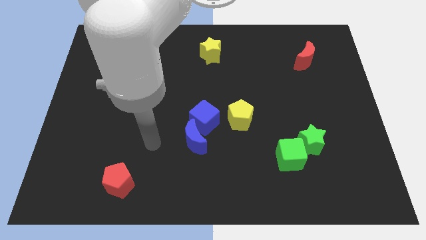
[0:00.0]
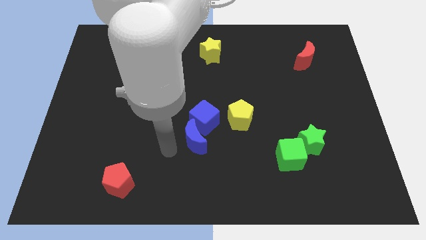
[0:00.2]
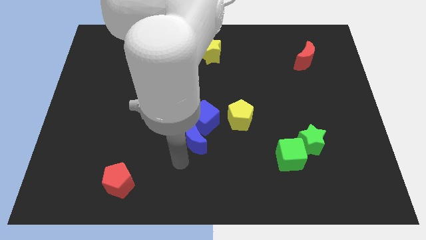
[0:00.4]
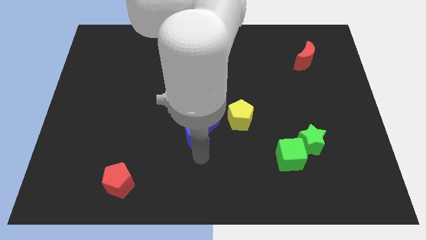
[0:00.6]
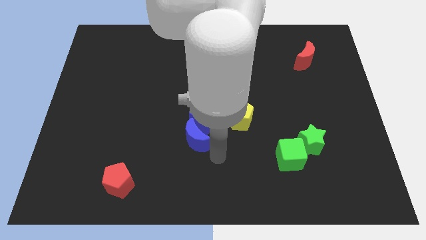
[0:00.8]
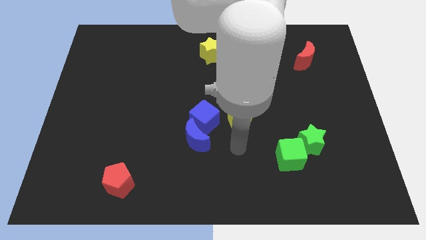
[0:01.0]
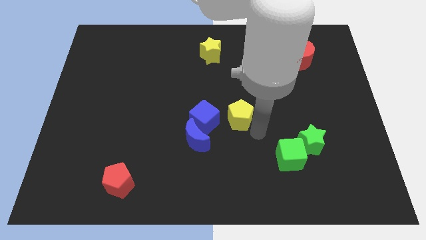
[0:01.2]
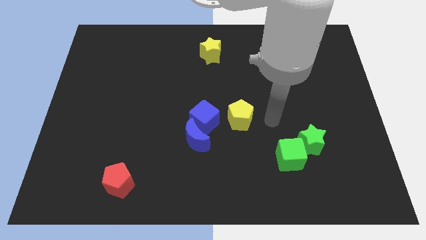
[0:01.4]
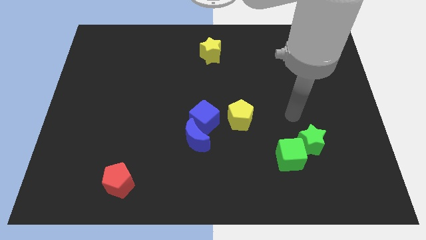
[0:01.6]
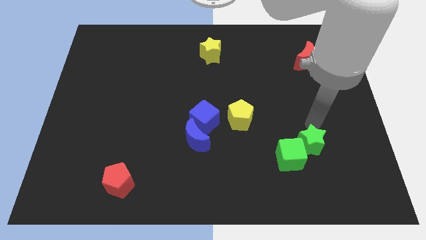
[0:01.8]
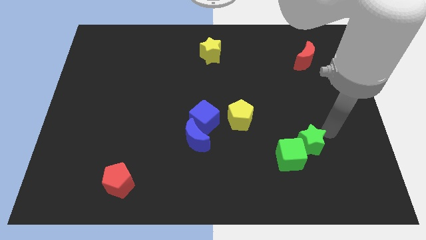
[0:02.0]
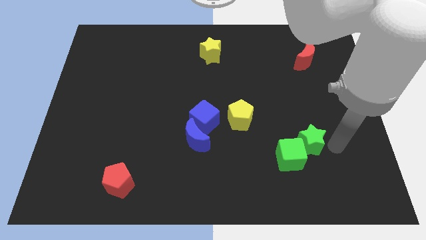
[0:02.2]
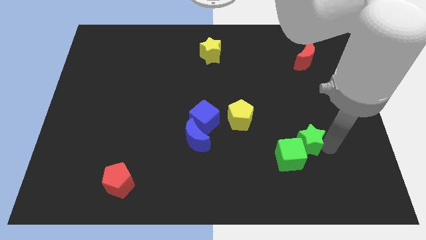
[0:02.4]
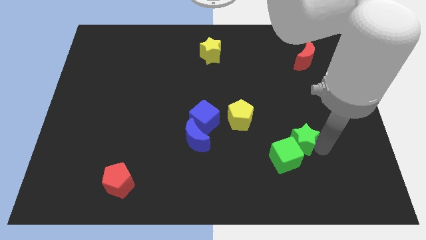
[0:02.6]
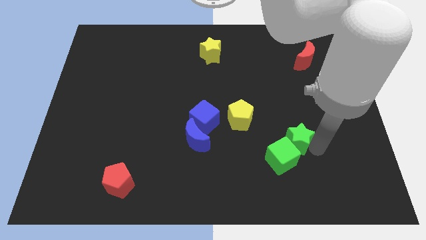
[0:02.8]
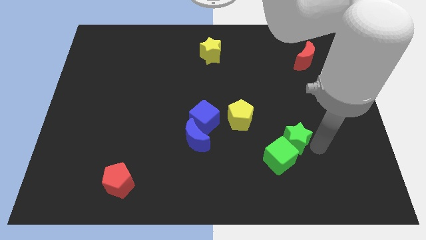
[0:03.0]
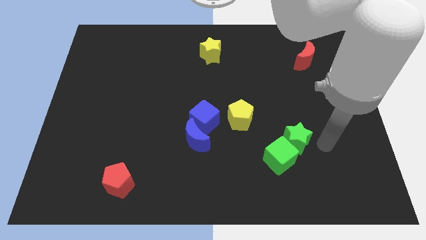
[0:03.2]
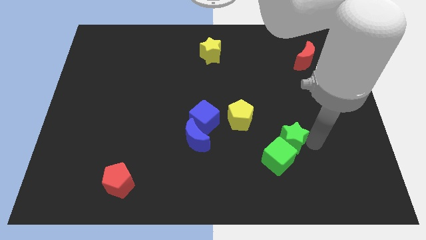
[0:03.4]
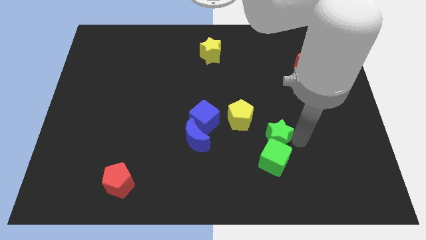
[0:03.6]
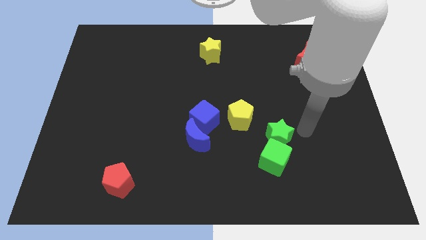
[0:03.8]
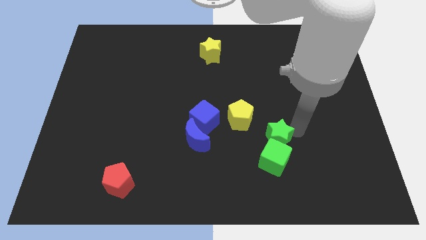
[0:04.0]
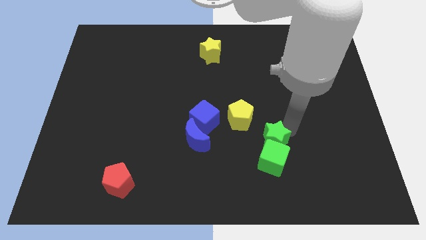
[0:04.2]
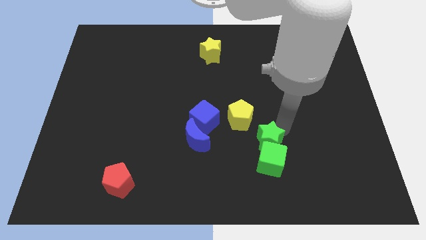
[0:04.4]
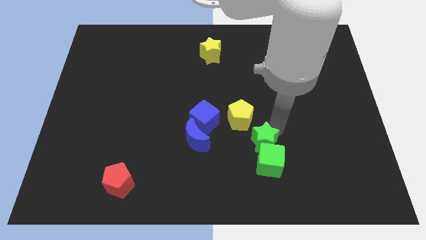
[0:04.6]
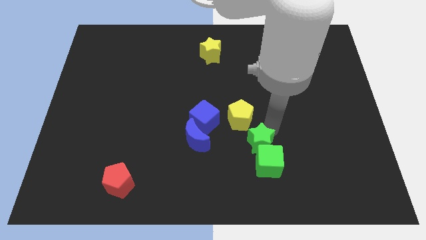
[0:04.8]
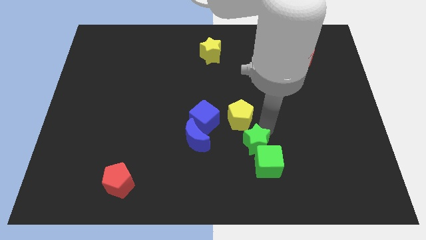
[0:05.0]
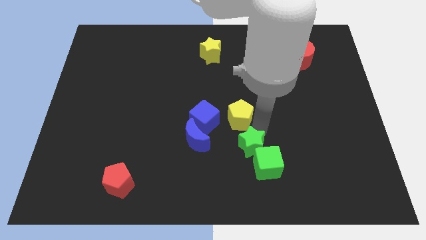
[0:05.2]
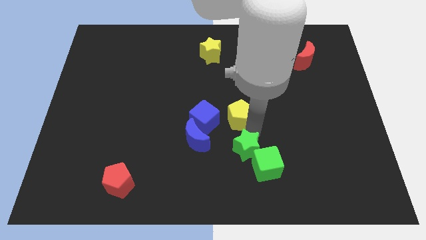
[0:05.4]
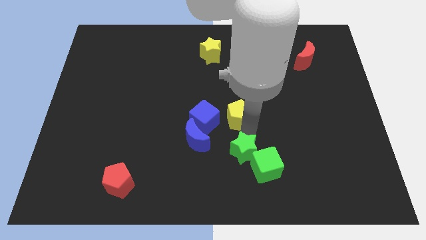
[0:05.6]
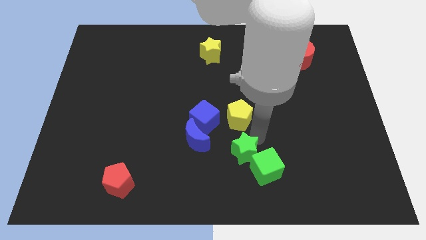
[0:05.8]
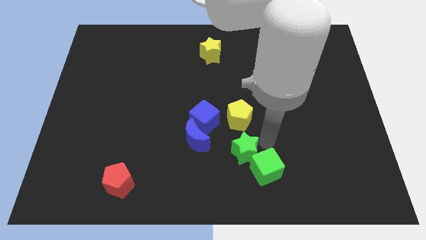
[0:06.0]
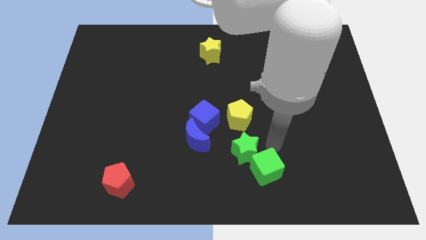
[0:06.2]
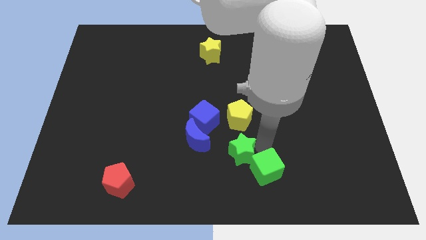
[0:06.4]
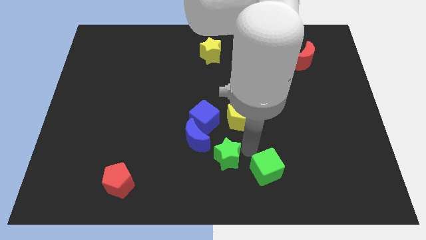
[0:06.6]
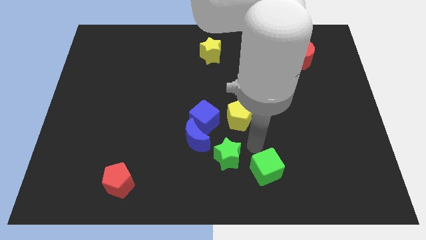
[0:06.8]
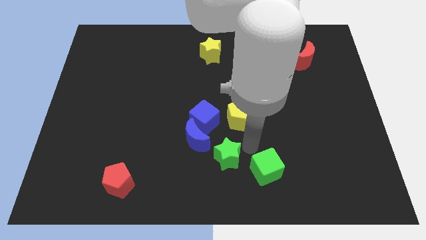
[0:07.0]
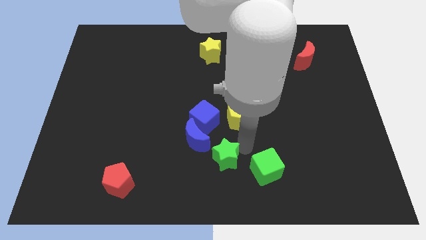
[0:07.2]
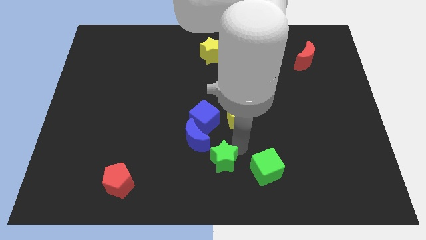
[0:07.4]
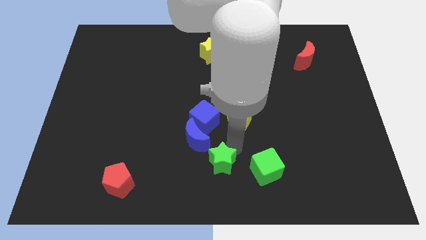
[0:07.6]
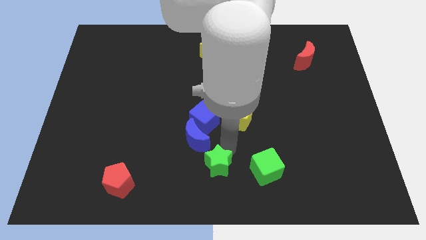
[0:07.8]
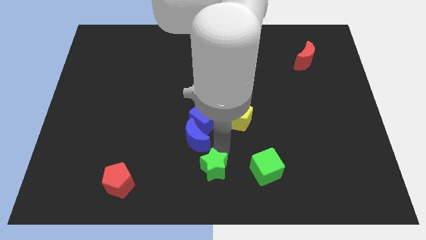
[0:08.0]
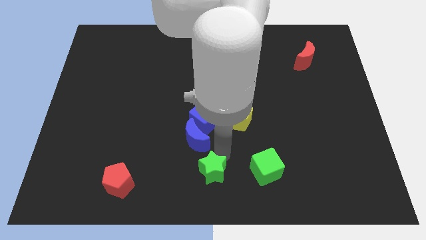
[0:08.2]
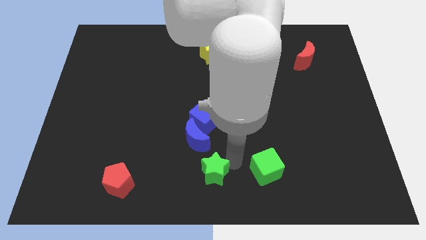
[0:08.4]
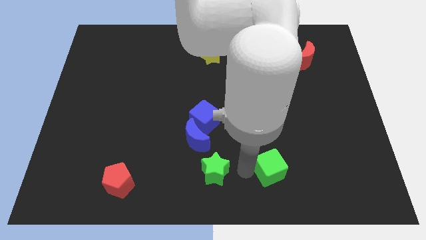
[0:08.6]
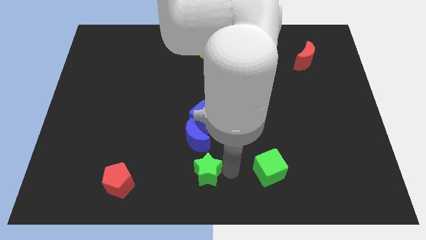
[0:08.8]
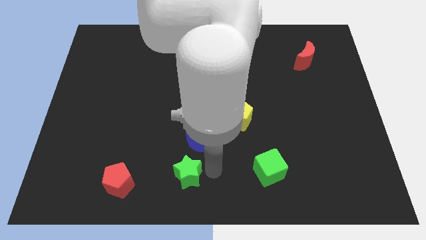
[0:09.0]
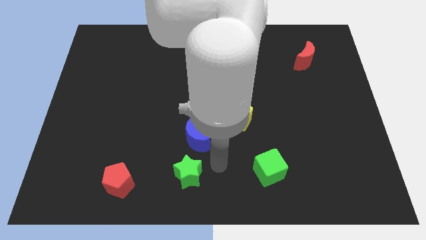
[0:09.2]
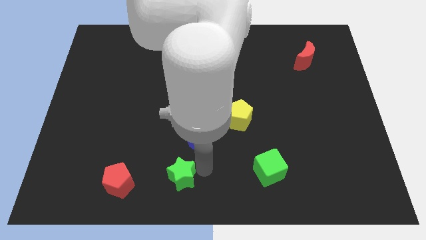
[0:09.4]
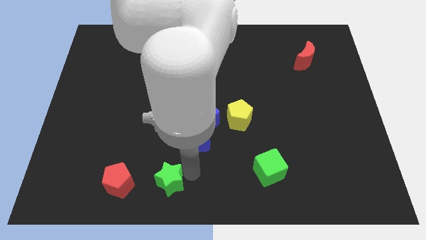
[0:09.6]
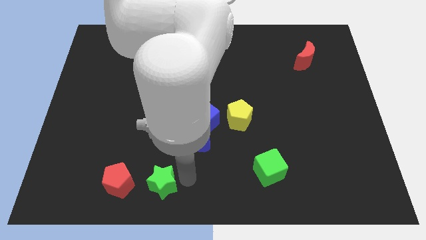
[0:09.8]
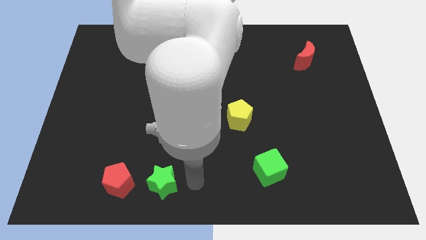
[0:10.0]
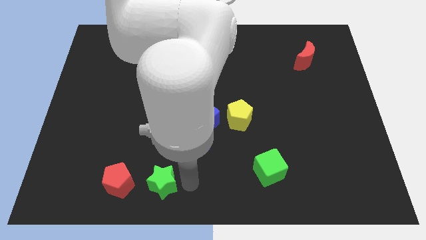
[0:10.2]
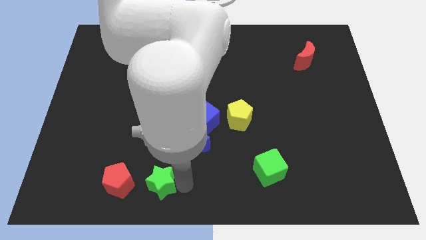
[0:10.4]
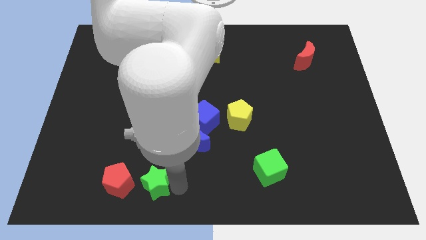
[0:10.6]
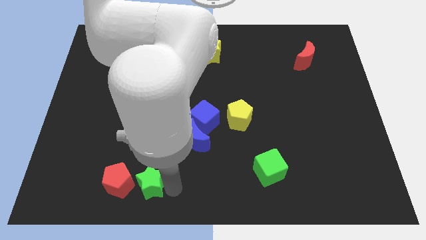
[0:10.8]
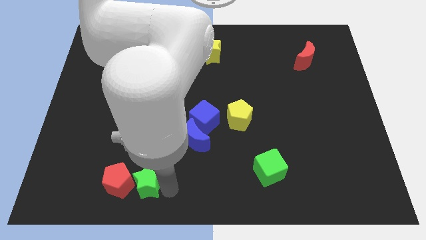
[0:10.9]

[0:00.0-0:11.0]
put the green star to the red pentagon

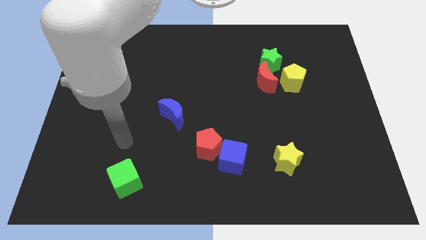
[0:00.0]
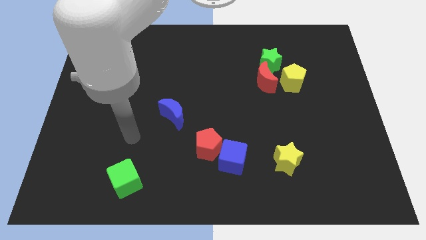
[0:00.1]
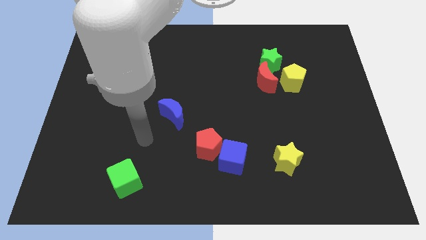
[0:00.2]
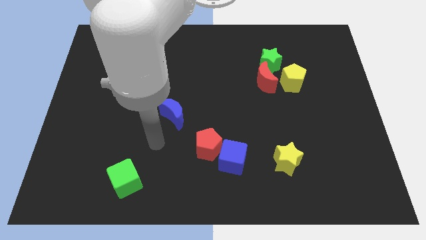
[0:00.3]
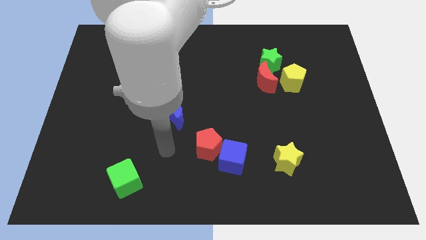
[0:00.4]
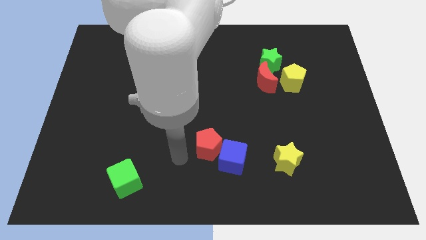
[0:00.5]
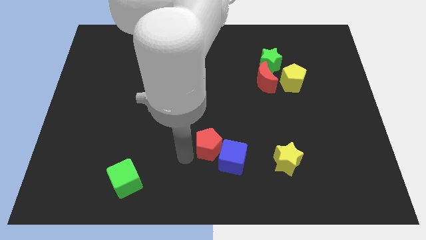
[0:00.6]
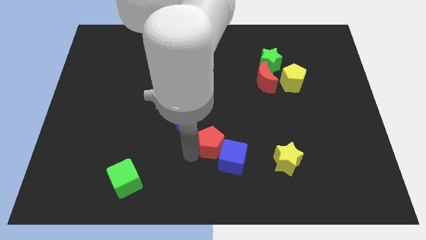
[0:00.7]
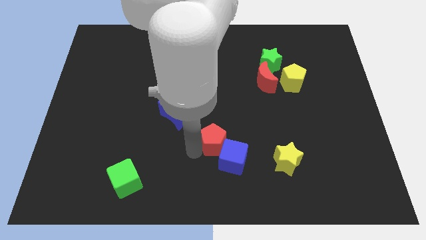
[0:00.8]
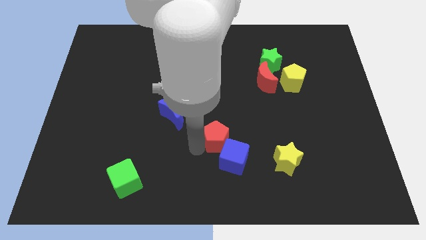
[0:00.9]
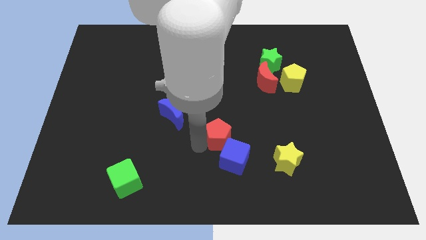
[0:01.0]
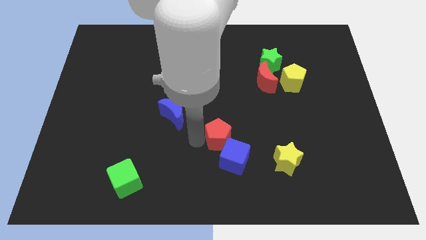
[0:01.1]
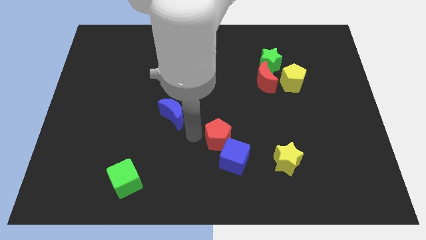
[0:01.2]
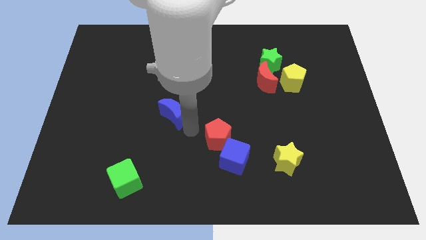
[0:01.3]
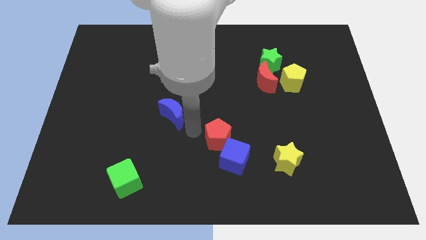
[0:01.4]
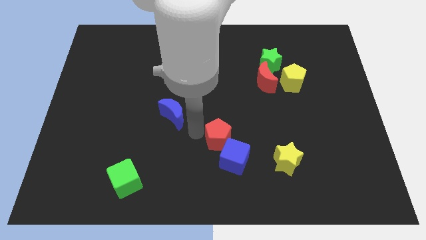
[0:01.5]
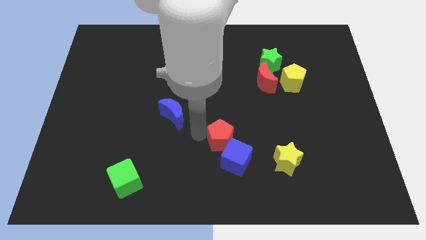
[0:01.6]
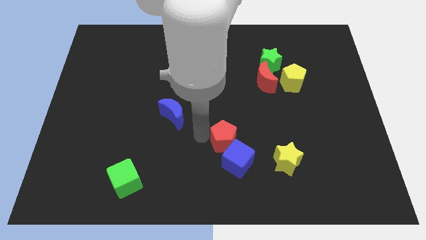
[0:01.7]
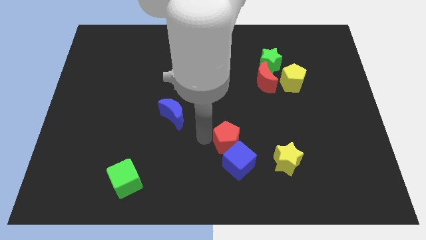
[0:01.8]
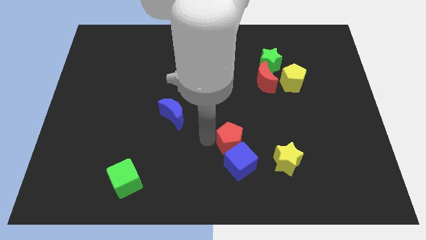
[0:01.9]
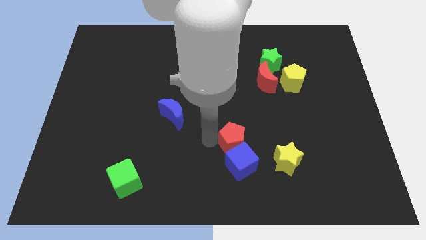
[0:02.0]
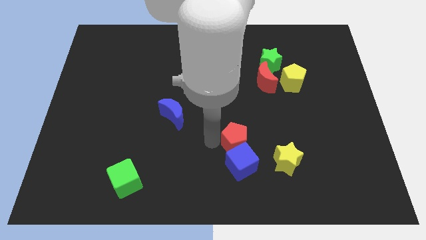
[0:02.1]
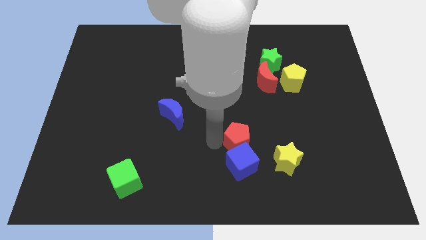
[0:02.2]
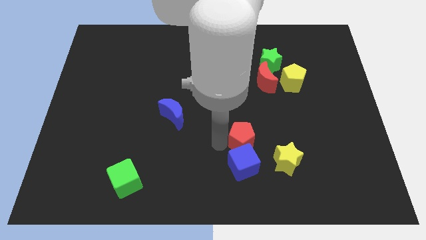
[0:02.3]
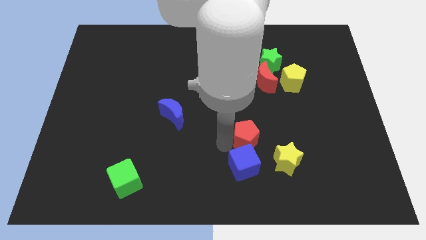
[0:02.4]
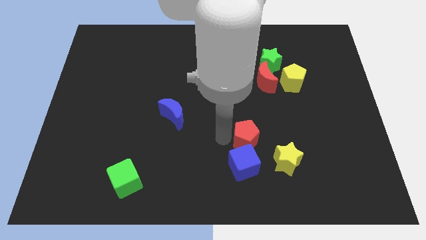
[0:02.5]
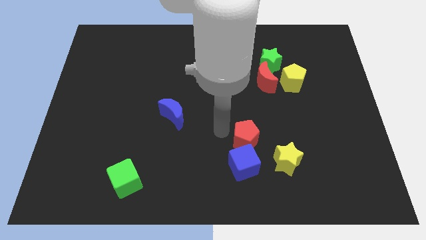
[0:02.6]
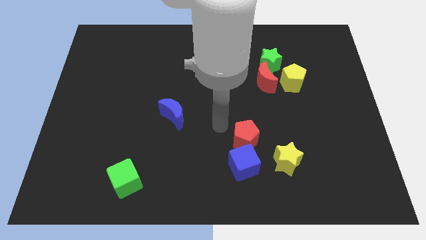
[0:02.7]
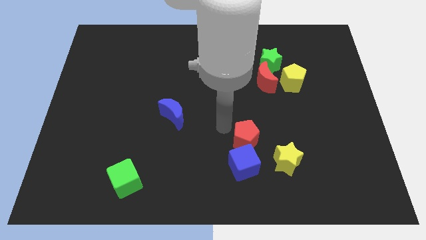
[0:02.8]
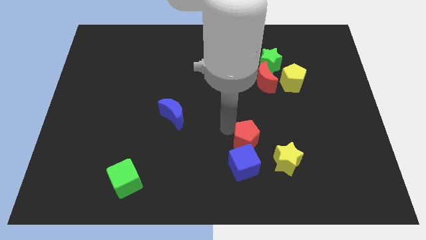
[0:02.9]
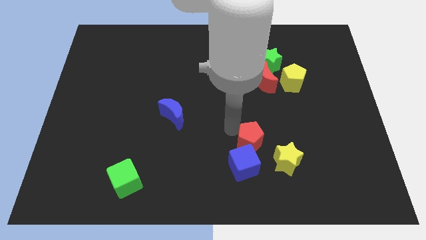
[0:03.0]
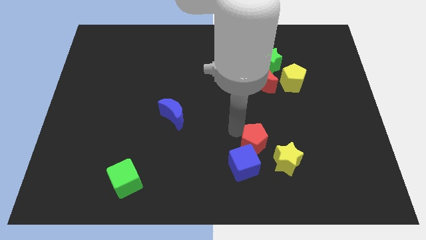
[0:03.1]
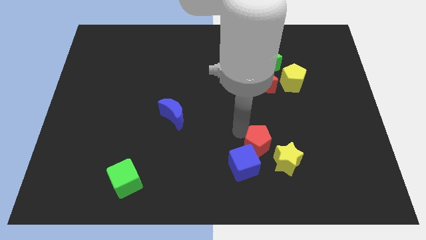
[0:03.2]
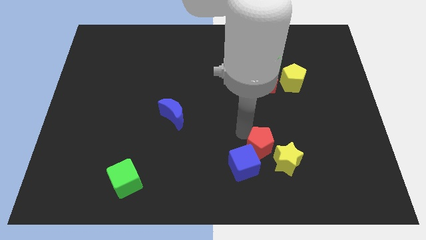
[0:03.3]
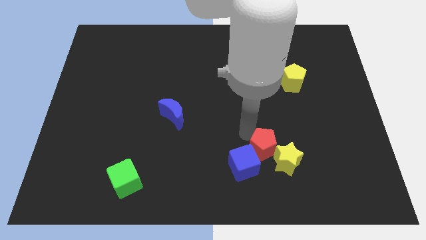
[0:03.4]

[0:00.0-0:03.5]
move the red pentagon towards the yellow star
